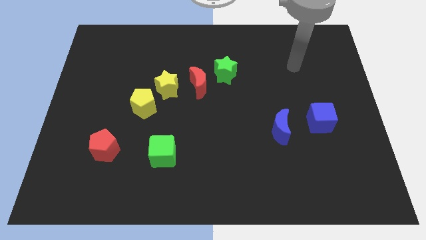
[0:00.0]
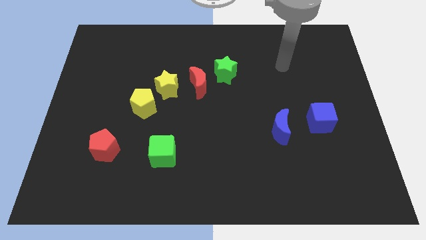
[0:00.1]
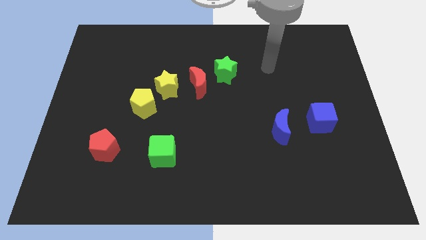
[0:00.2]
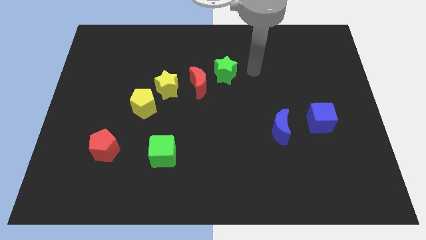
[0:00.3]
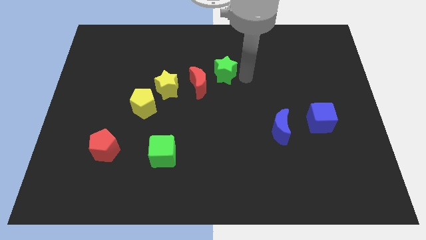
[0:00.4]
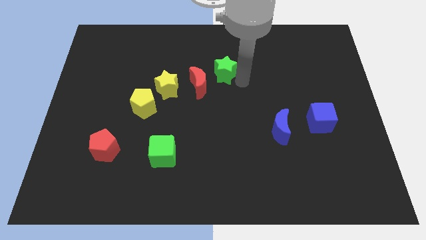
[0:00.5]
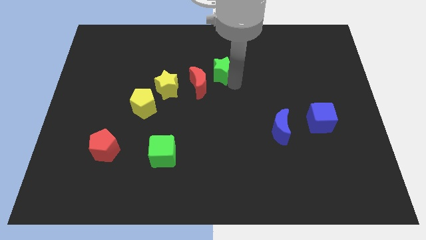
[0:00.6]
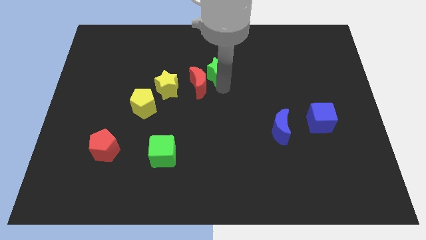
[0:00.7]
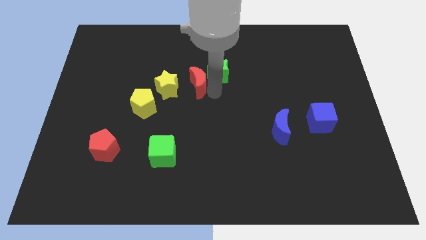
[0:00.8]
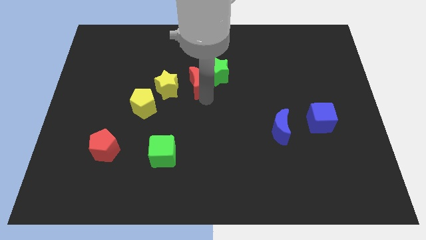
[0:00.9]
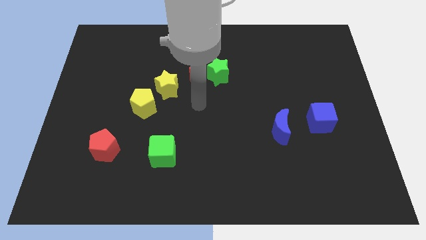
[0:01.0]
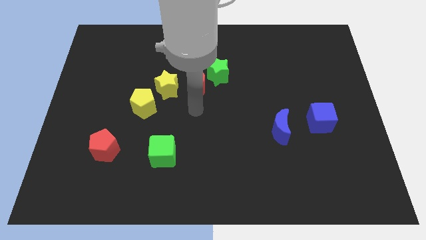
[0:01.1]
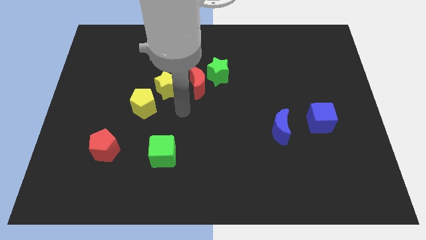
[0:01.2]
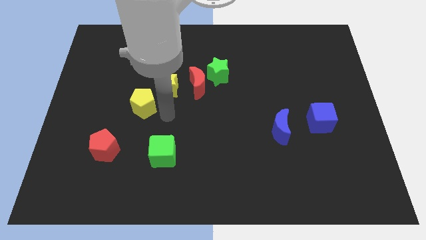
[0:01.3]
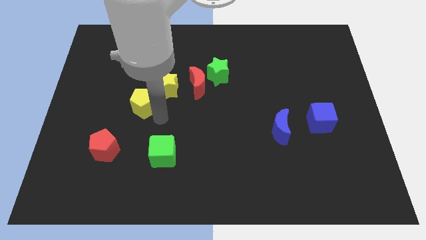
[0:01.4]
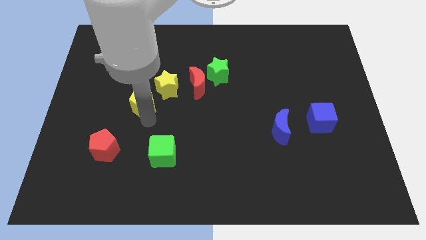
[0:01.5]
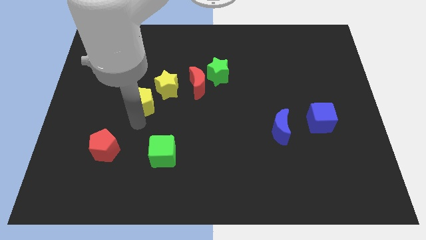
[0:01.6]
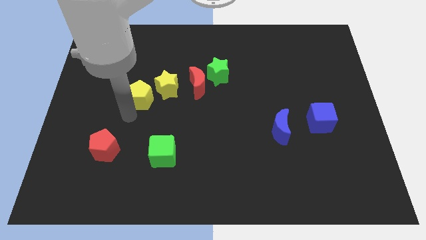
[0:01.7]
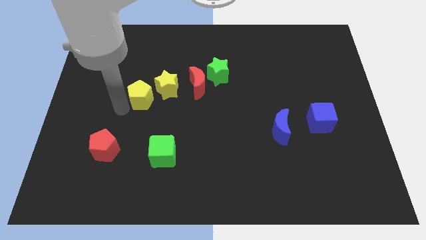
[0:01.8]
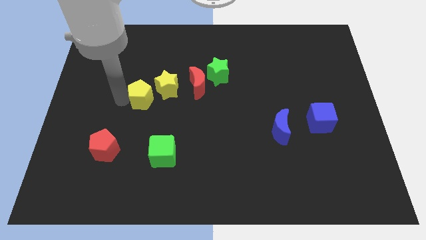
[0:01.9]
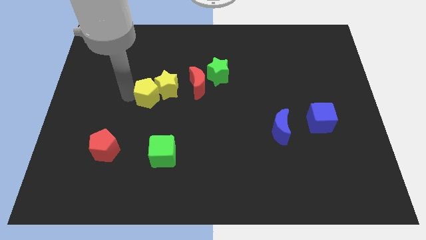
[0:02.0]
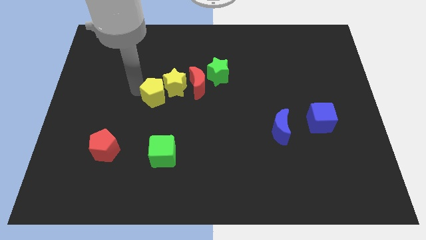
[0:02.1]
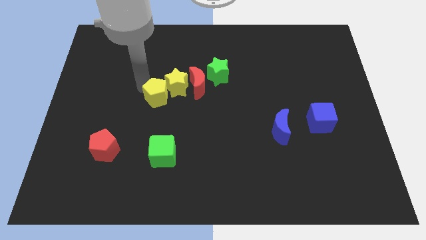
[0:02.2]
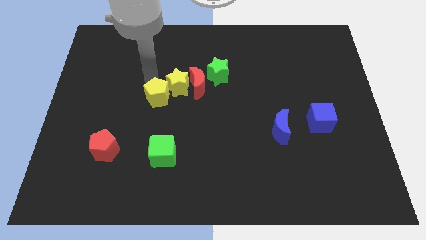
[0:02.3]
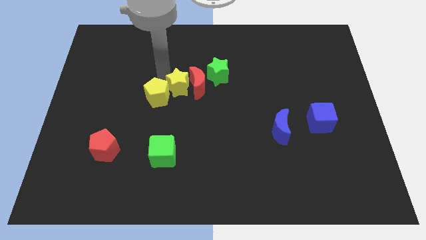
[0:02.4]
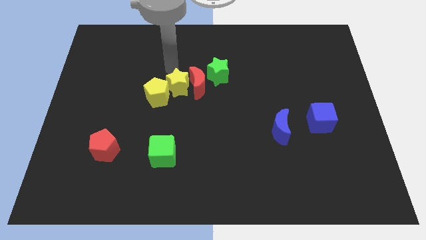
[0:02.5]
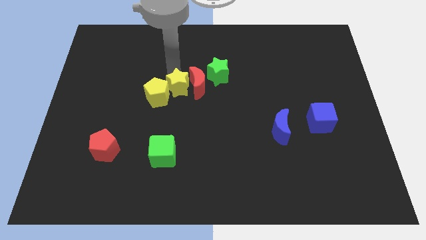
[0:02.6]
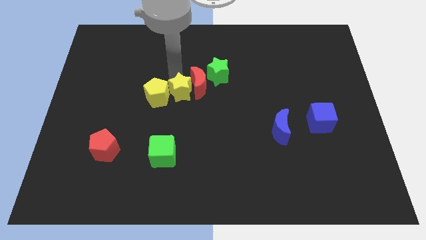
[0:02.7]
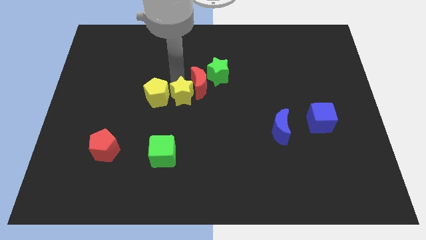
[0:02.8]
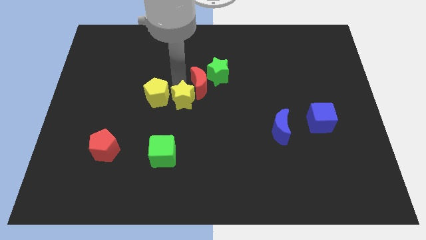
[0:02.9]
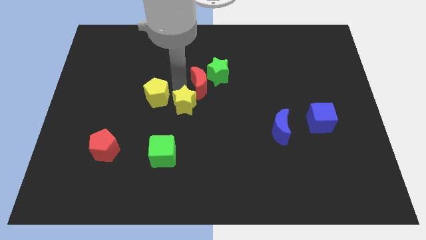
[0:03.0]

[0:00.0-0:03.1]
move the yellow star down and then to the right somewhat

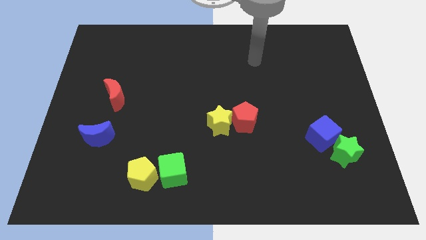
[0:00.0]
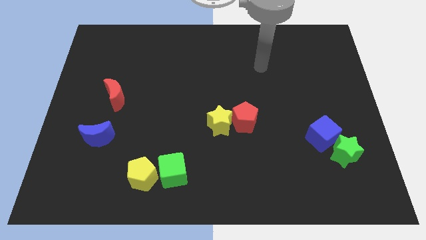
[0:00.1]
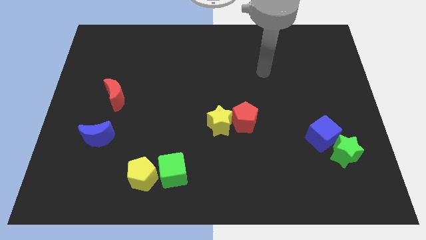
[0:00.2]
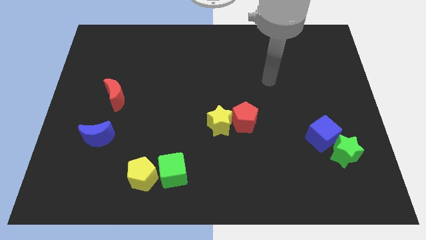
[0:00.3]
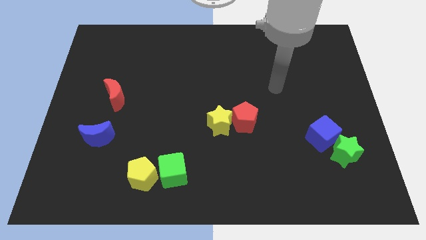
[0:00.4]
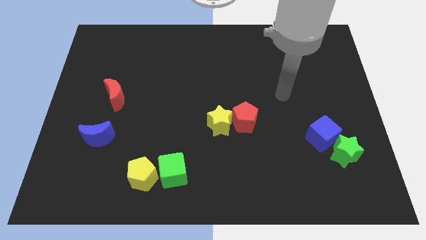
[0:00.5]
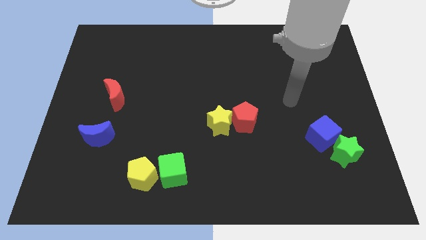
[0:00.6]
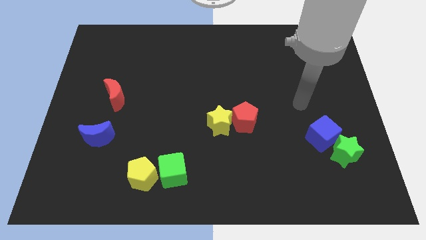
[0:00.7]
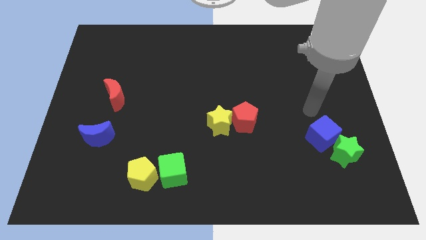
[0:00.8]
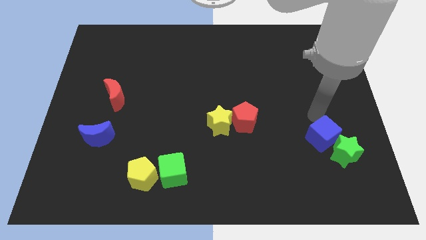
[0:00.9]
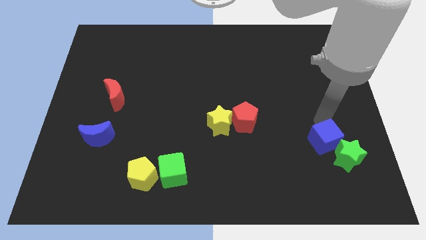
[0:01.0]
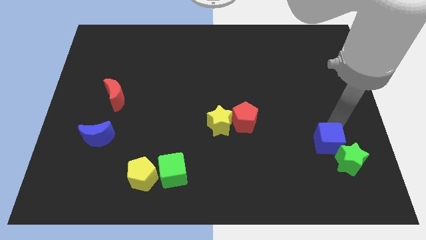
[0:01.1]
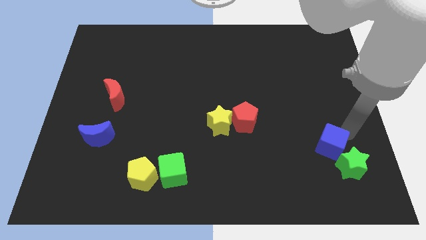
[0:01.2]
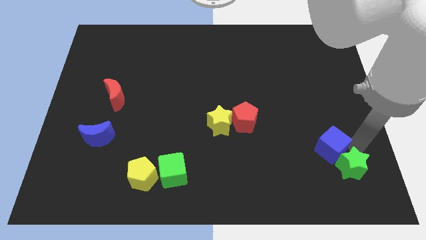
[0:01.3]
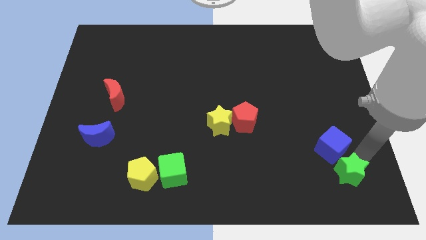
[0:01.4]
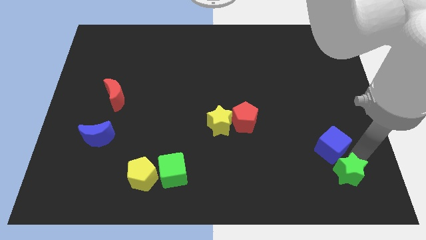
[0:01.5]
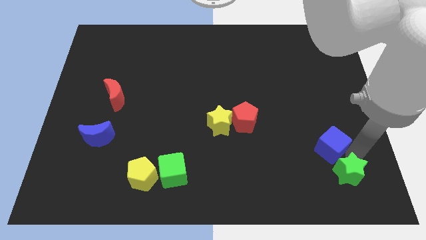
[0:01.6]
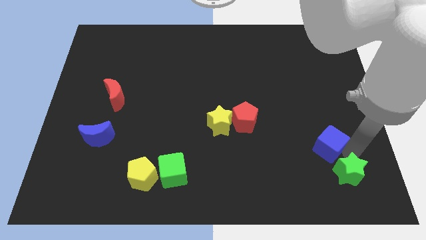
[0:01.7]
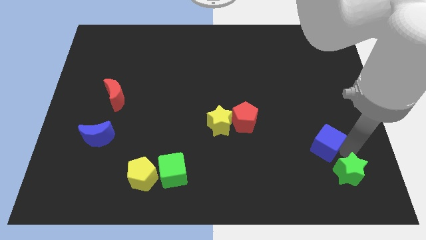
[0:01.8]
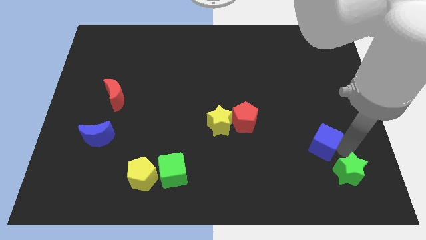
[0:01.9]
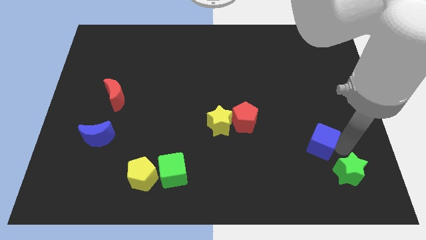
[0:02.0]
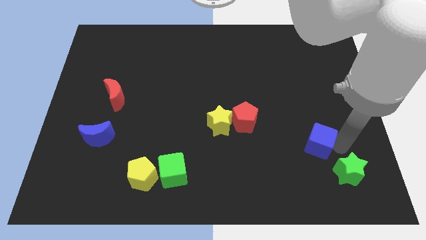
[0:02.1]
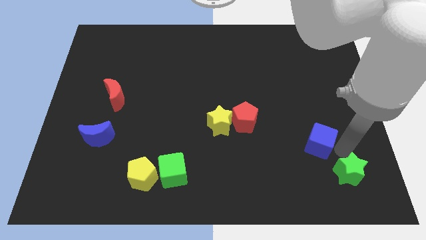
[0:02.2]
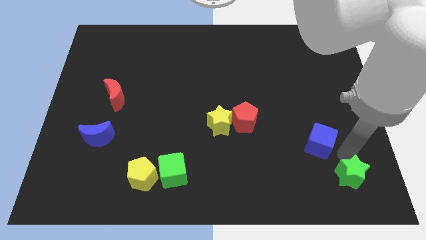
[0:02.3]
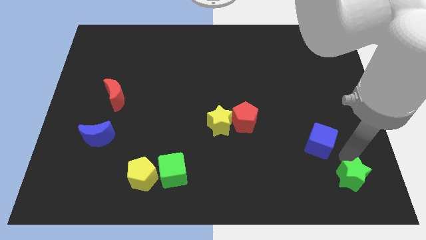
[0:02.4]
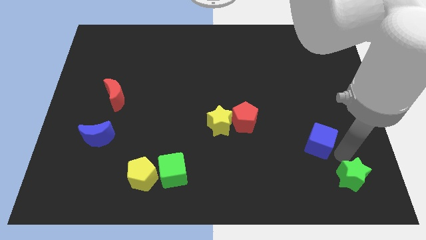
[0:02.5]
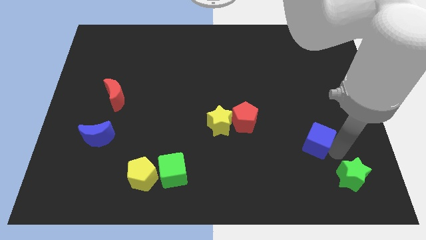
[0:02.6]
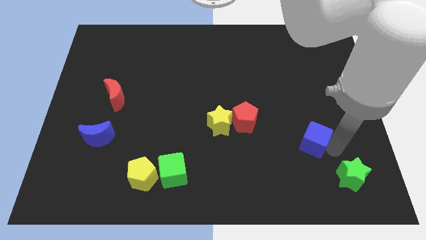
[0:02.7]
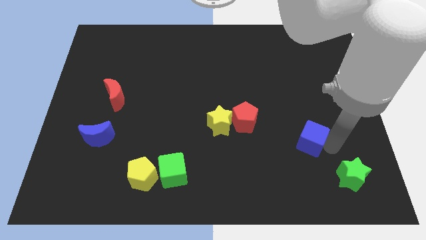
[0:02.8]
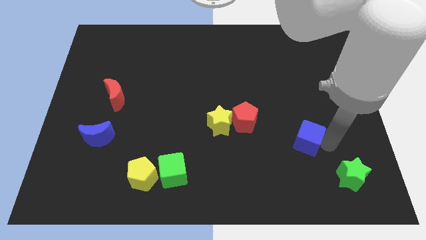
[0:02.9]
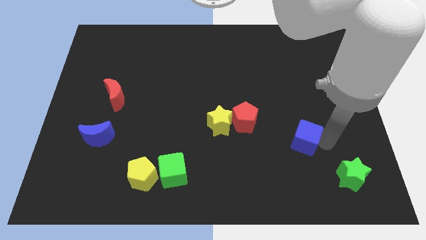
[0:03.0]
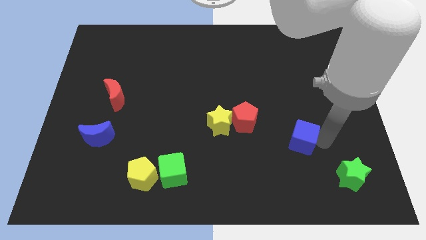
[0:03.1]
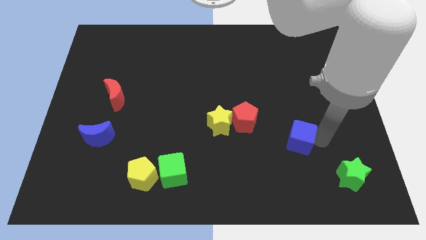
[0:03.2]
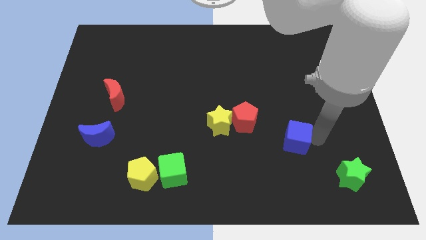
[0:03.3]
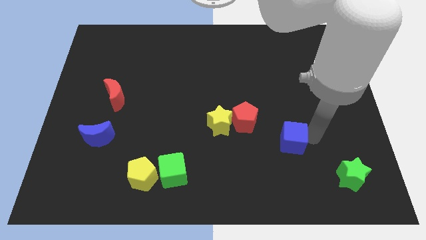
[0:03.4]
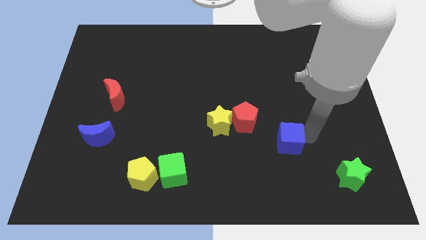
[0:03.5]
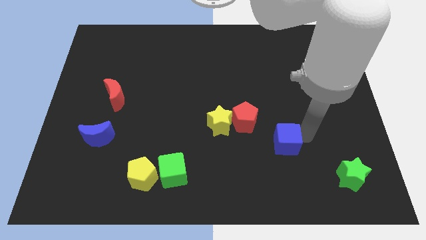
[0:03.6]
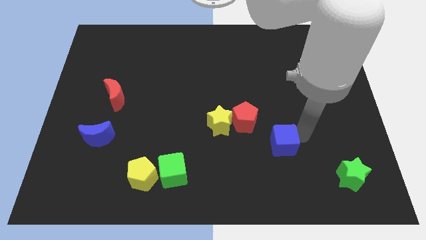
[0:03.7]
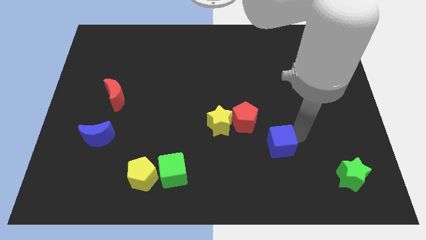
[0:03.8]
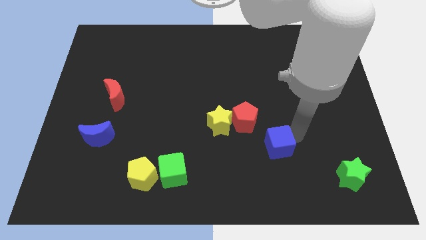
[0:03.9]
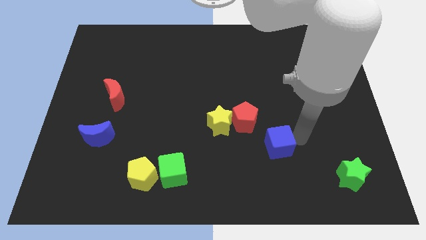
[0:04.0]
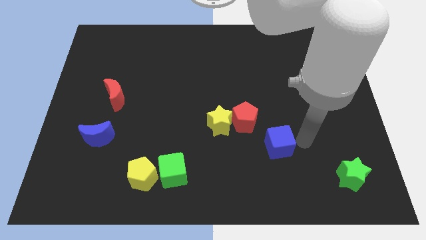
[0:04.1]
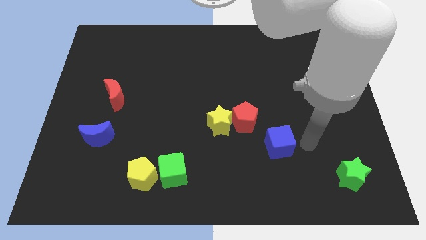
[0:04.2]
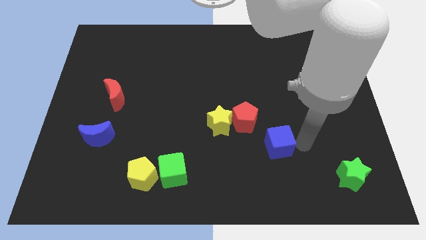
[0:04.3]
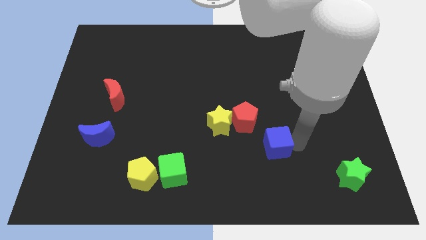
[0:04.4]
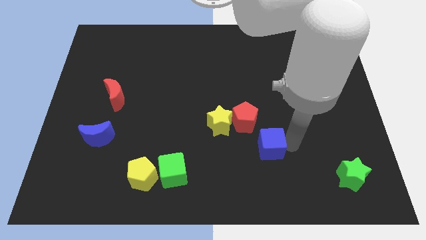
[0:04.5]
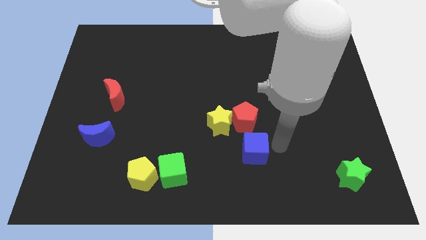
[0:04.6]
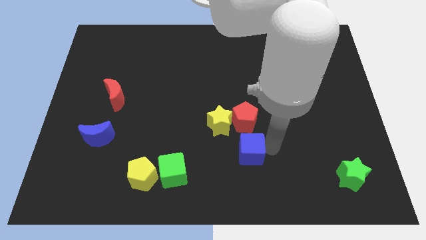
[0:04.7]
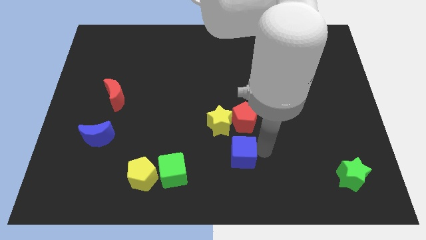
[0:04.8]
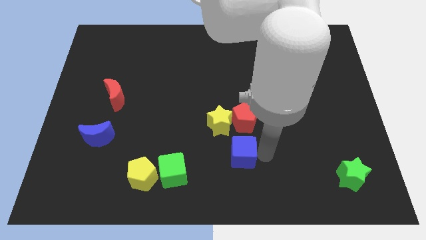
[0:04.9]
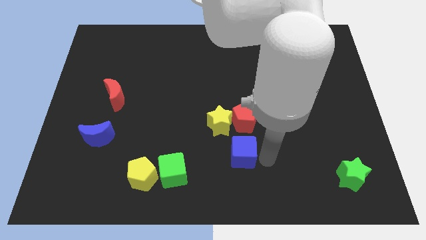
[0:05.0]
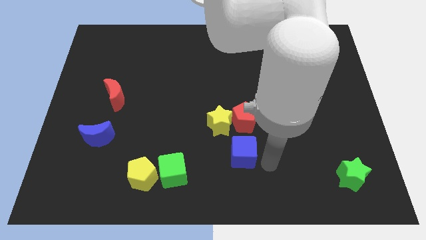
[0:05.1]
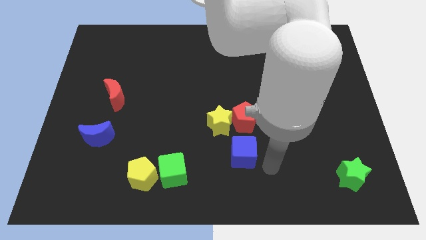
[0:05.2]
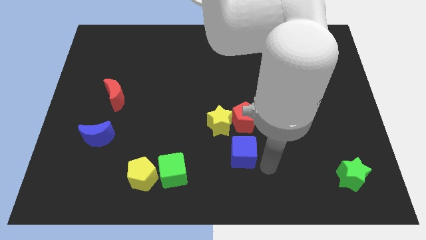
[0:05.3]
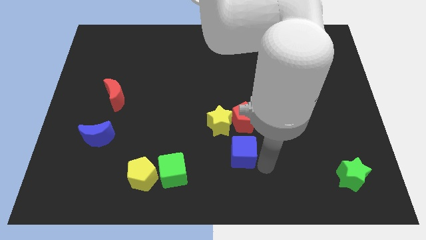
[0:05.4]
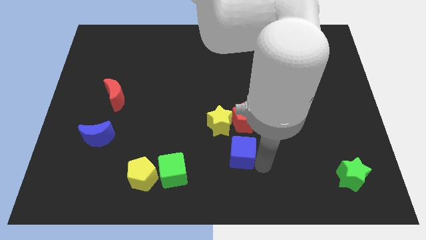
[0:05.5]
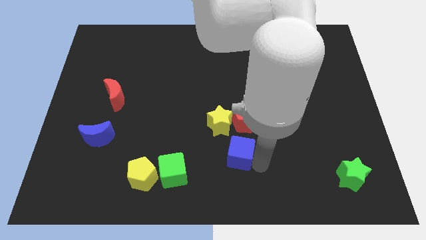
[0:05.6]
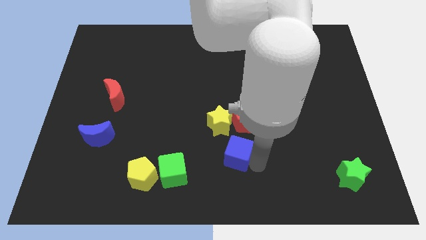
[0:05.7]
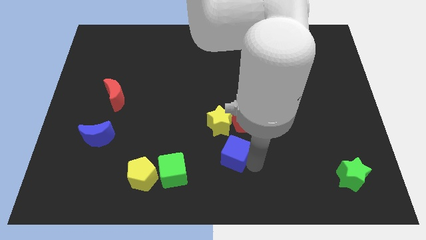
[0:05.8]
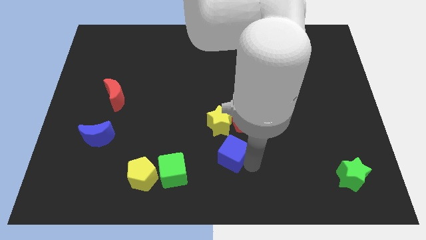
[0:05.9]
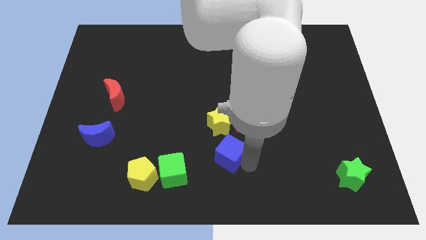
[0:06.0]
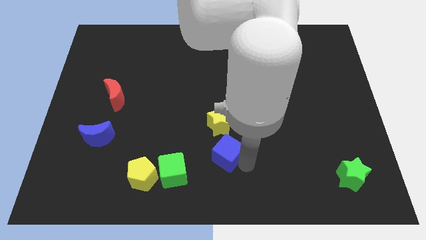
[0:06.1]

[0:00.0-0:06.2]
move the blue cube left
